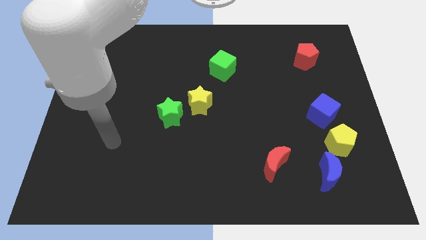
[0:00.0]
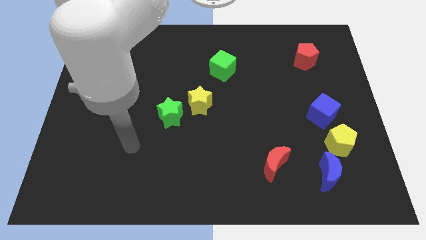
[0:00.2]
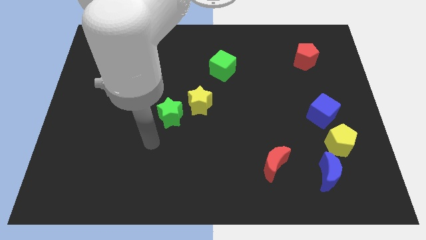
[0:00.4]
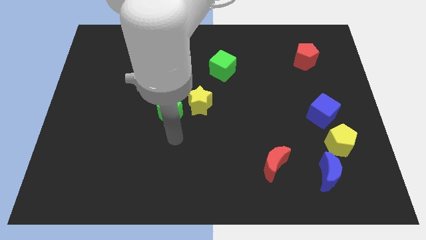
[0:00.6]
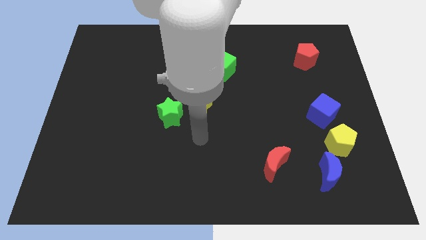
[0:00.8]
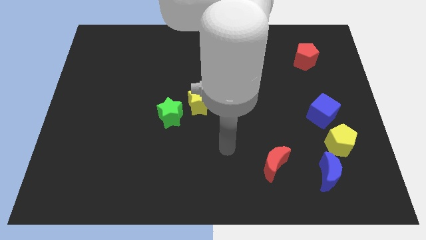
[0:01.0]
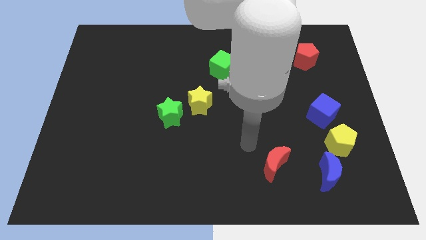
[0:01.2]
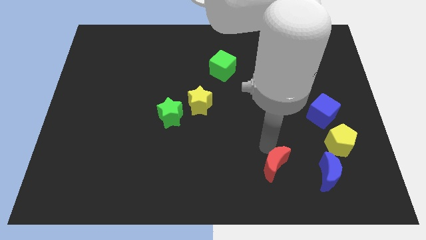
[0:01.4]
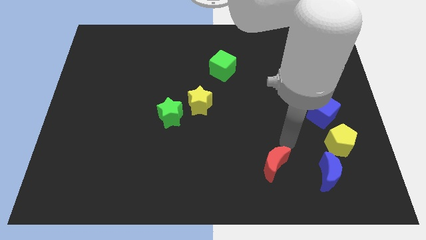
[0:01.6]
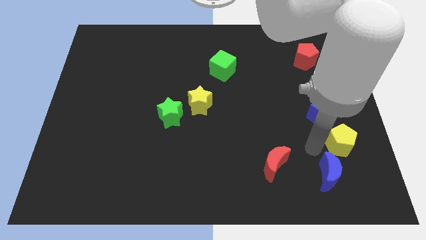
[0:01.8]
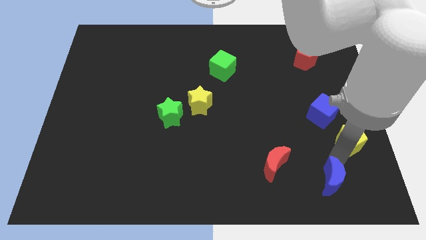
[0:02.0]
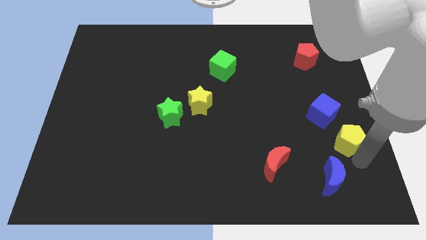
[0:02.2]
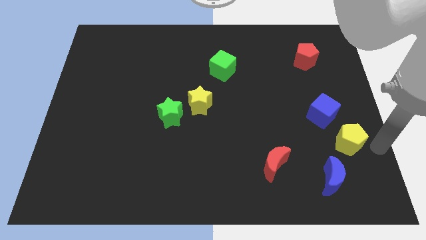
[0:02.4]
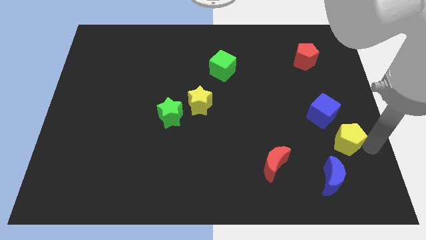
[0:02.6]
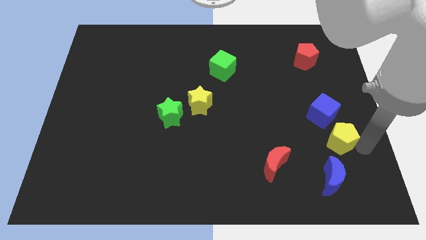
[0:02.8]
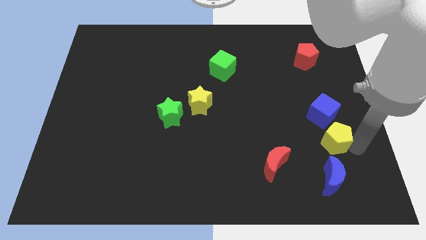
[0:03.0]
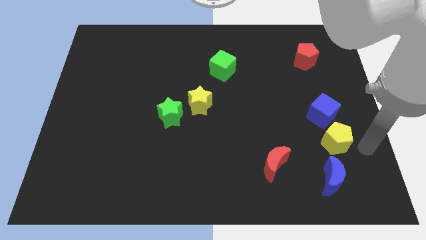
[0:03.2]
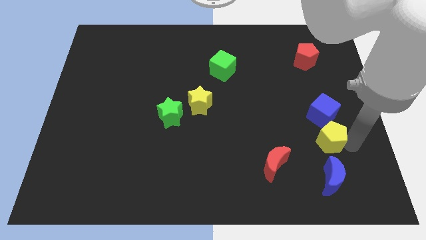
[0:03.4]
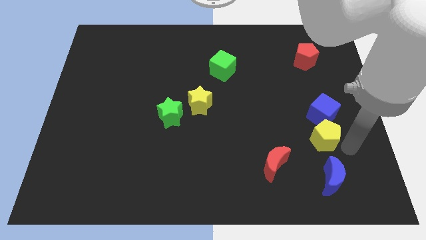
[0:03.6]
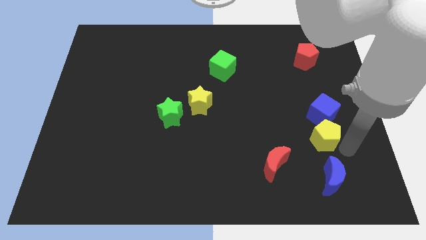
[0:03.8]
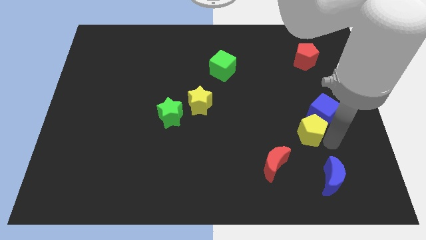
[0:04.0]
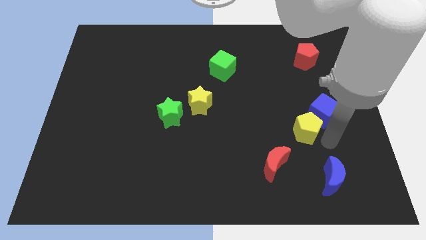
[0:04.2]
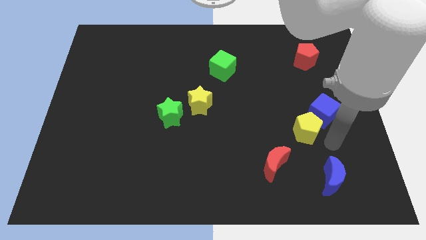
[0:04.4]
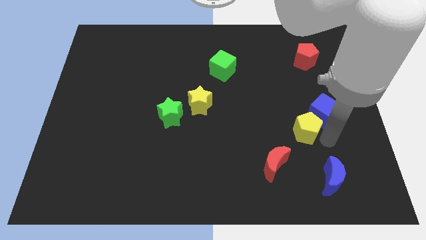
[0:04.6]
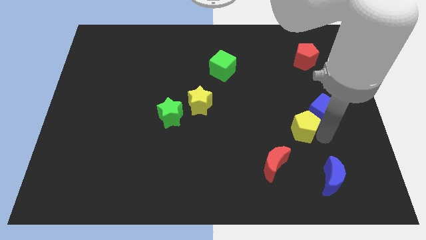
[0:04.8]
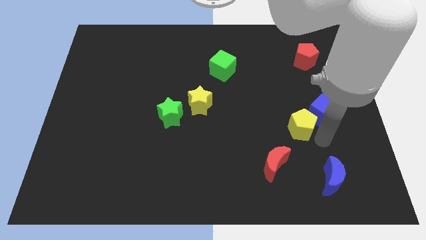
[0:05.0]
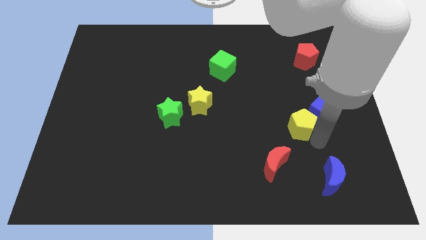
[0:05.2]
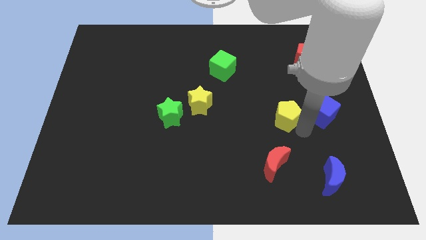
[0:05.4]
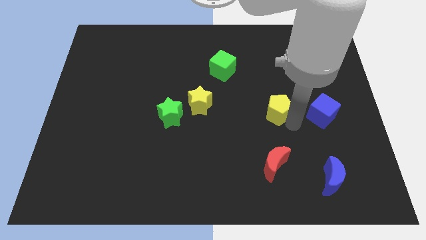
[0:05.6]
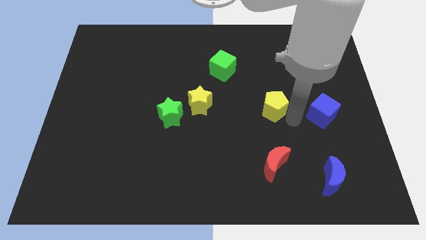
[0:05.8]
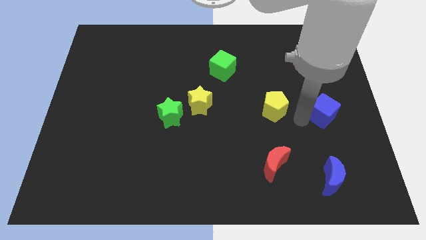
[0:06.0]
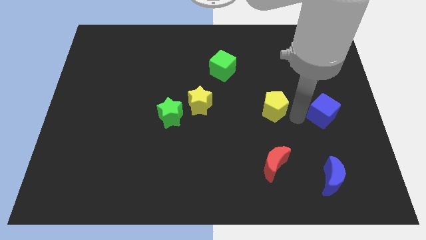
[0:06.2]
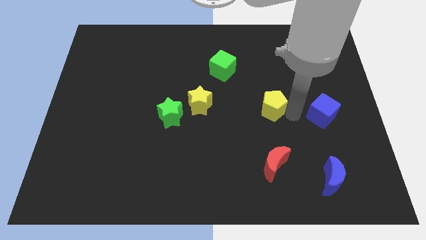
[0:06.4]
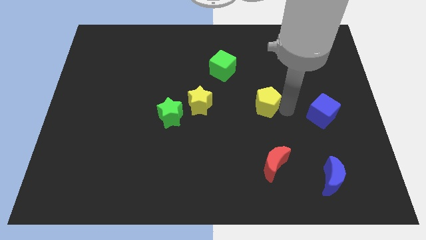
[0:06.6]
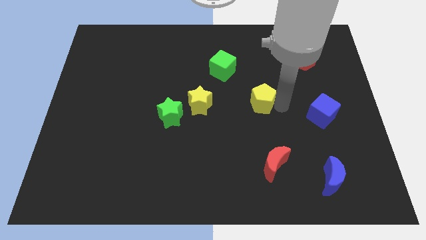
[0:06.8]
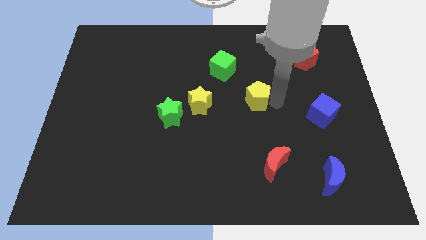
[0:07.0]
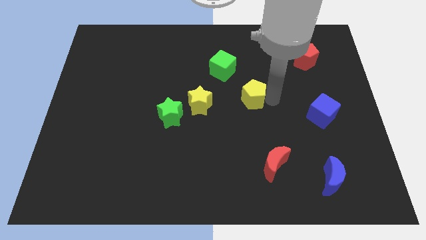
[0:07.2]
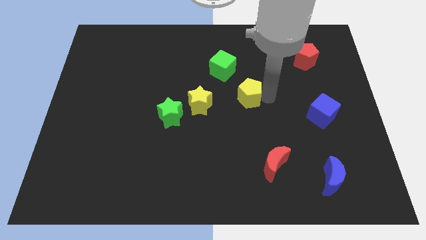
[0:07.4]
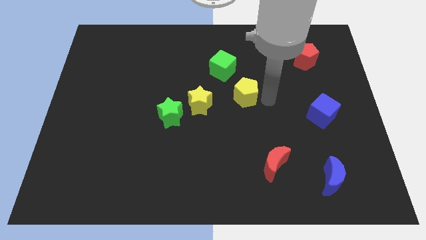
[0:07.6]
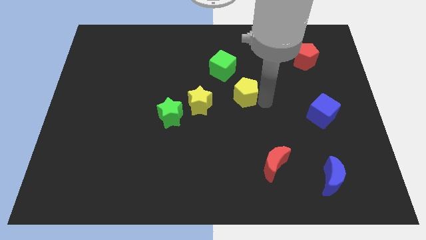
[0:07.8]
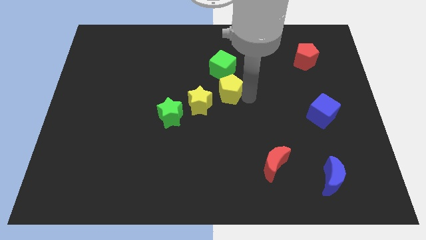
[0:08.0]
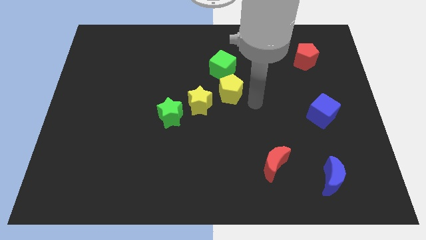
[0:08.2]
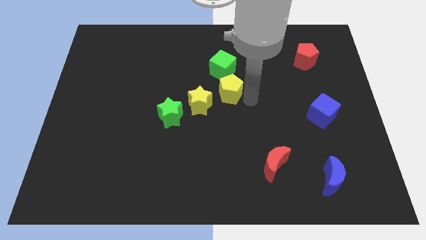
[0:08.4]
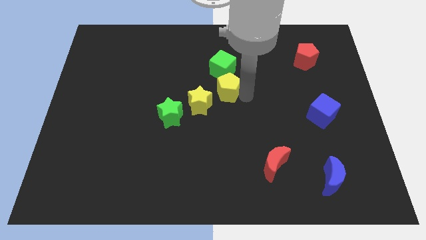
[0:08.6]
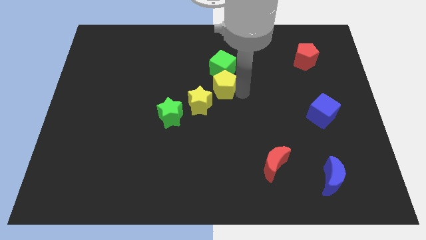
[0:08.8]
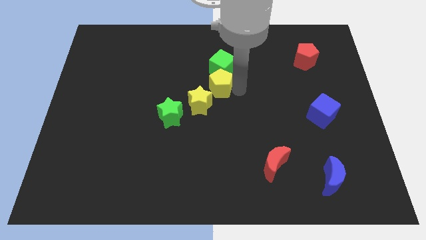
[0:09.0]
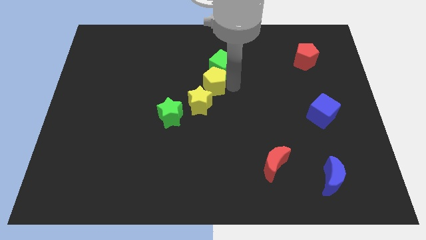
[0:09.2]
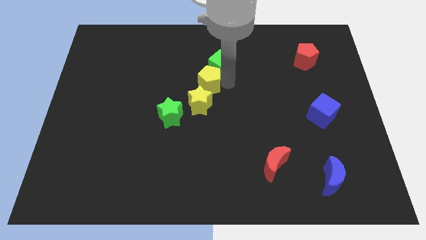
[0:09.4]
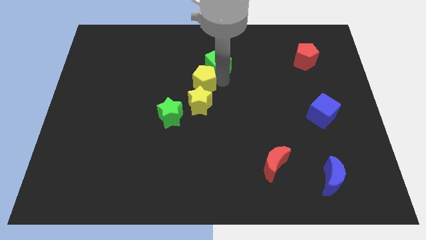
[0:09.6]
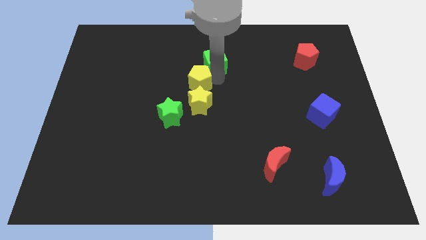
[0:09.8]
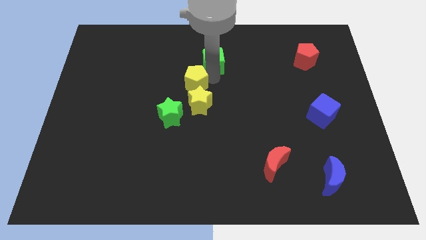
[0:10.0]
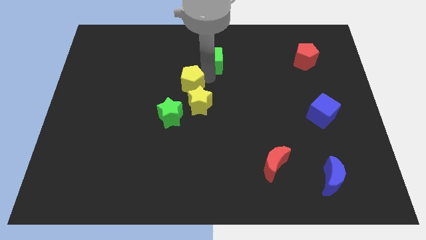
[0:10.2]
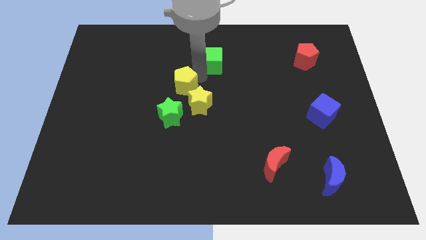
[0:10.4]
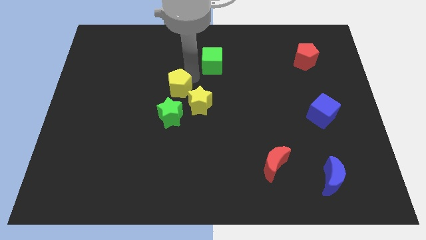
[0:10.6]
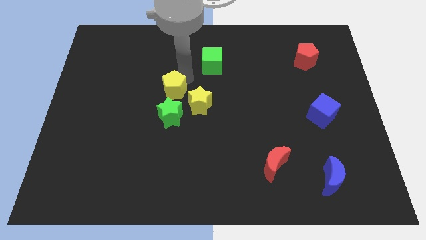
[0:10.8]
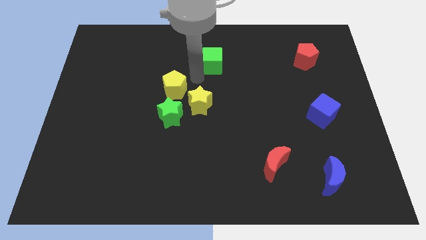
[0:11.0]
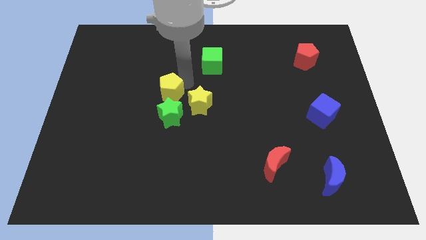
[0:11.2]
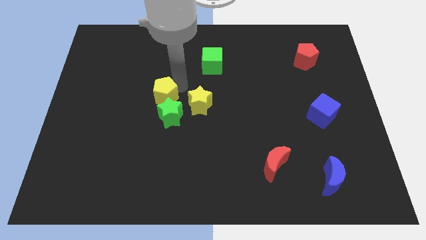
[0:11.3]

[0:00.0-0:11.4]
slide the yellow pentagon to the top left side of the green star
